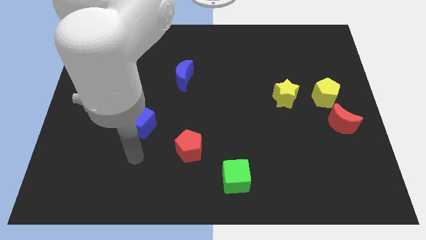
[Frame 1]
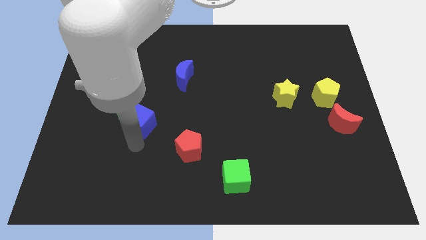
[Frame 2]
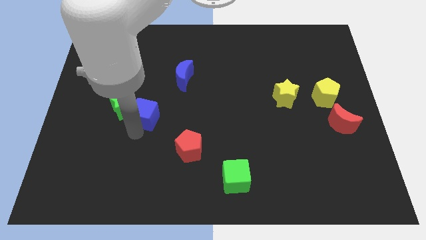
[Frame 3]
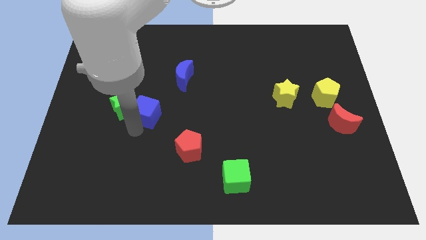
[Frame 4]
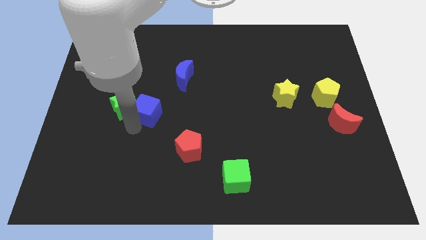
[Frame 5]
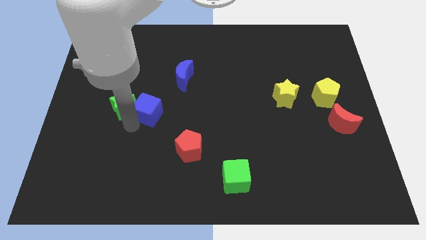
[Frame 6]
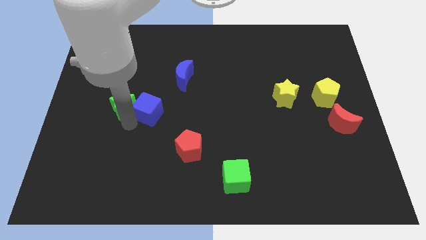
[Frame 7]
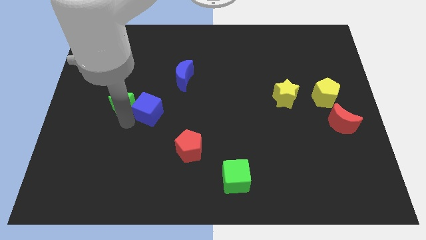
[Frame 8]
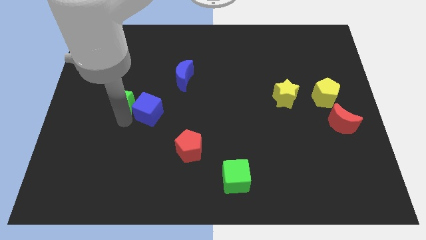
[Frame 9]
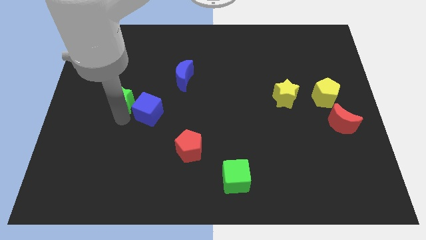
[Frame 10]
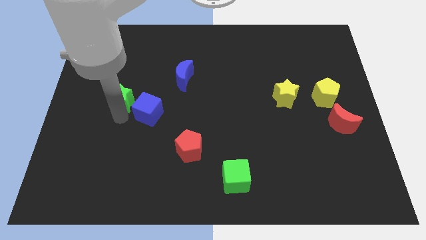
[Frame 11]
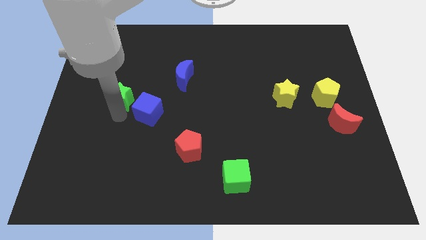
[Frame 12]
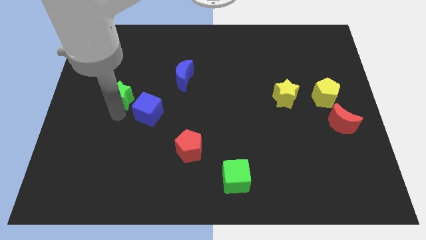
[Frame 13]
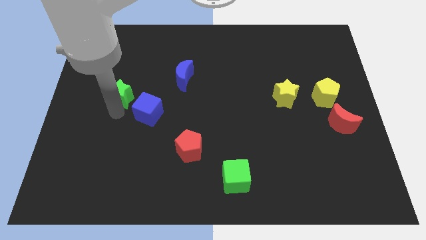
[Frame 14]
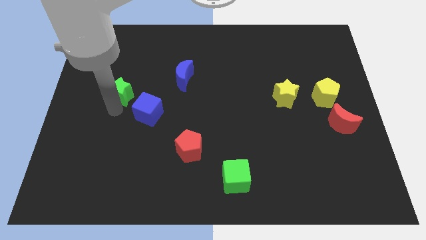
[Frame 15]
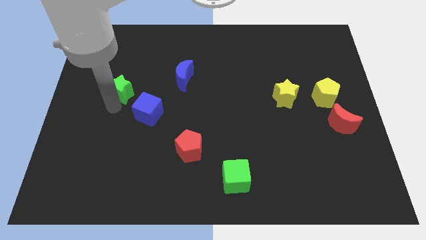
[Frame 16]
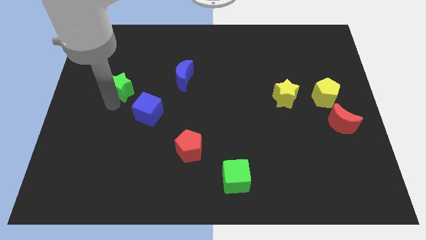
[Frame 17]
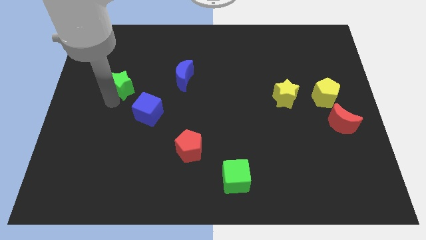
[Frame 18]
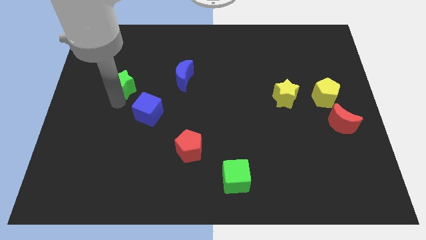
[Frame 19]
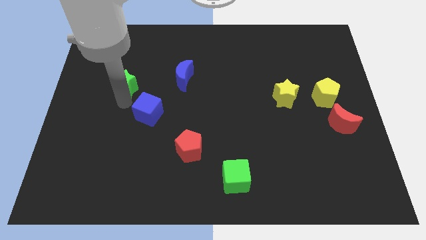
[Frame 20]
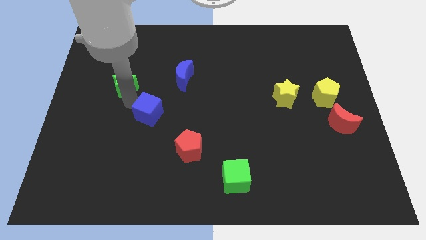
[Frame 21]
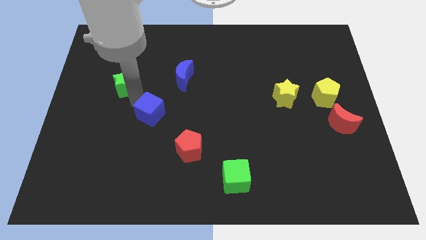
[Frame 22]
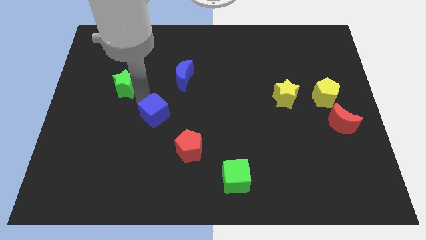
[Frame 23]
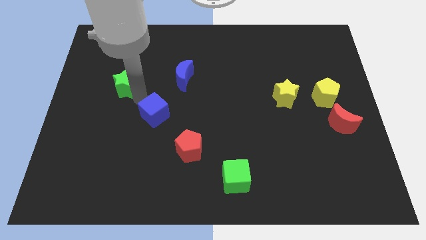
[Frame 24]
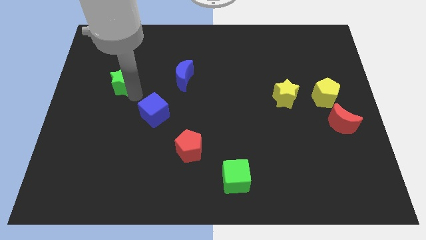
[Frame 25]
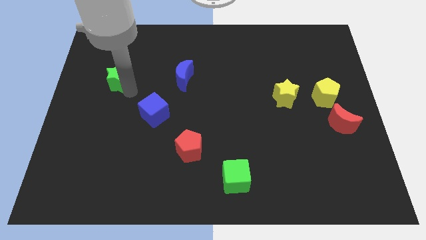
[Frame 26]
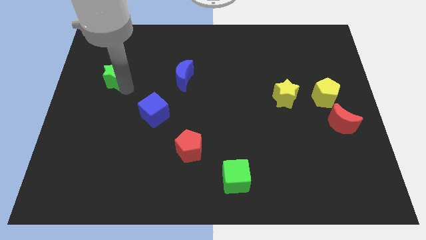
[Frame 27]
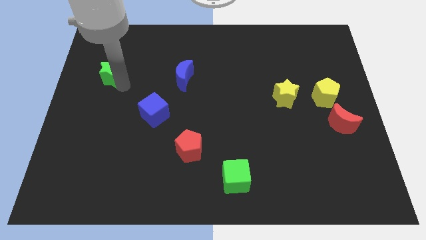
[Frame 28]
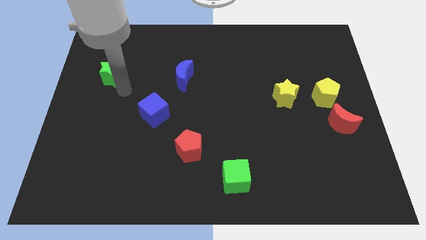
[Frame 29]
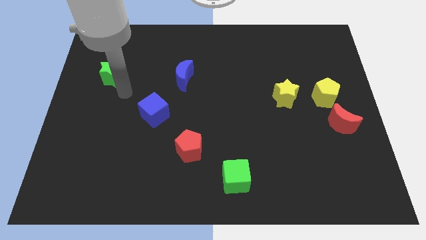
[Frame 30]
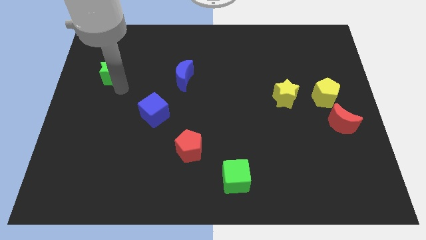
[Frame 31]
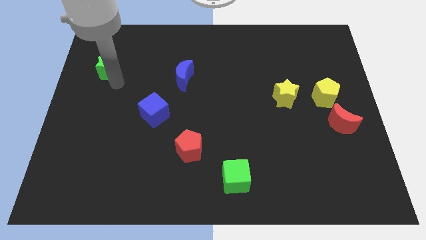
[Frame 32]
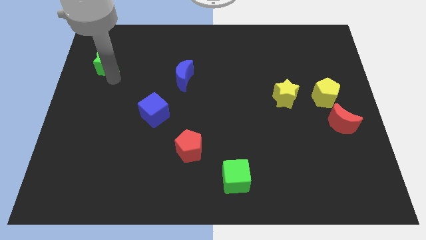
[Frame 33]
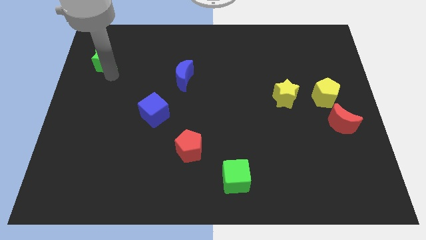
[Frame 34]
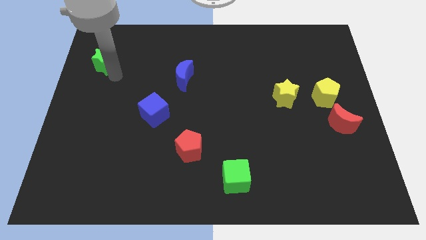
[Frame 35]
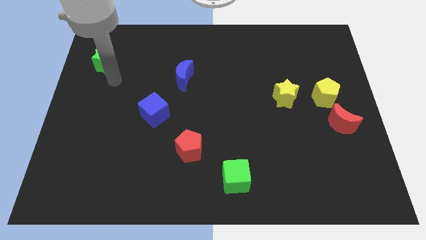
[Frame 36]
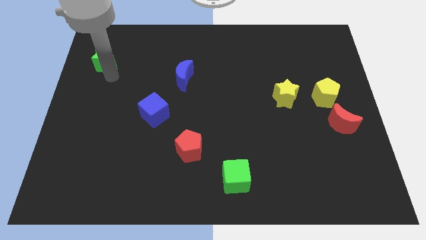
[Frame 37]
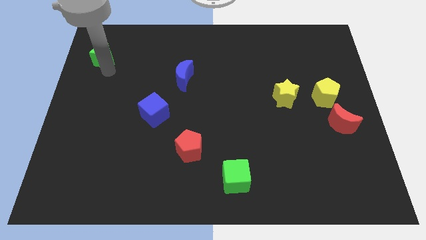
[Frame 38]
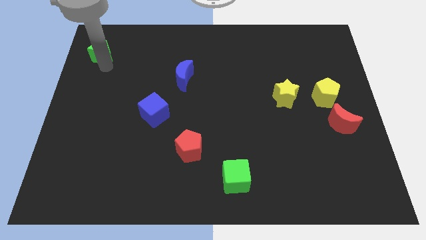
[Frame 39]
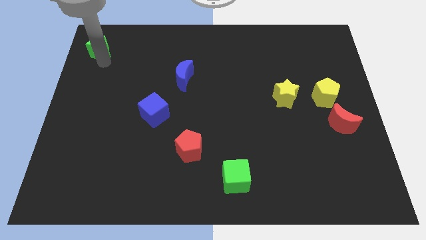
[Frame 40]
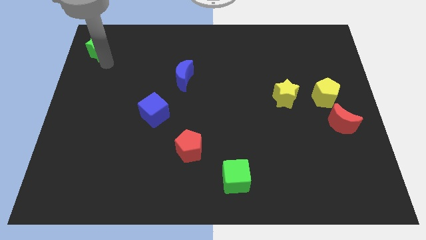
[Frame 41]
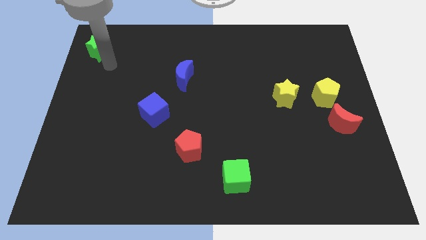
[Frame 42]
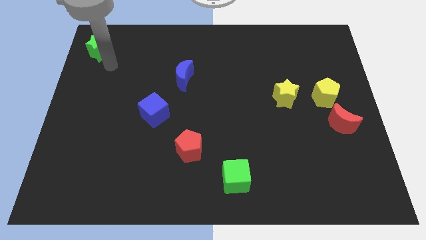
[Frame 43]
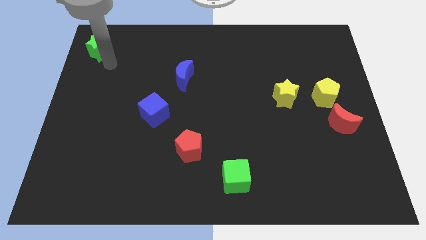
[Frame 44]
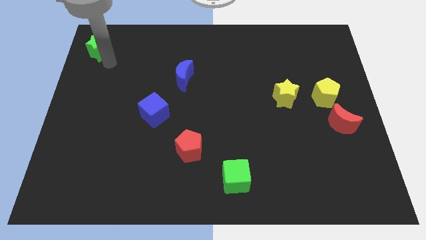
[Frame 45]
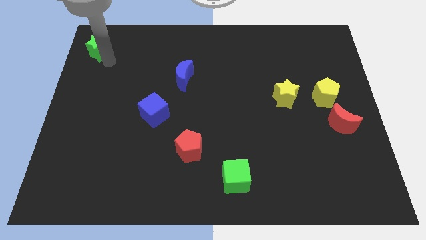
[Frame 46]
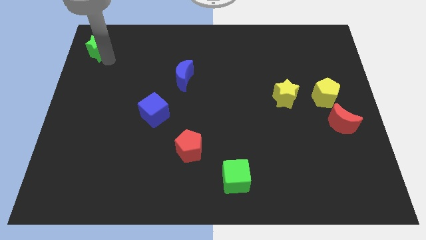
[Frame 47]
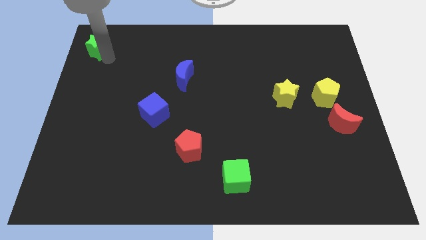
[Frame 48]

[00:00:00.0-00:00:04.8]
push the green star to the top left

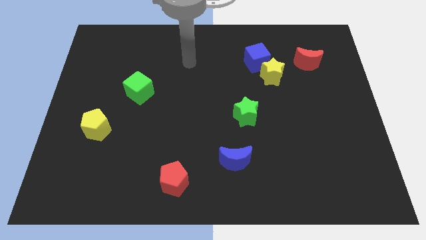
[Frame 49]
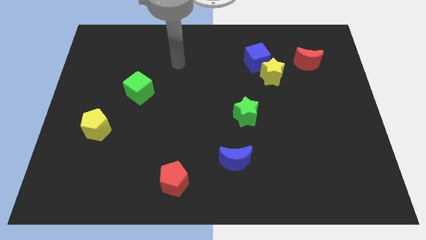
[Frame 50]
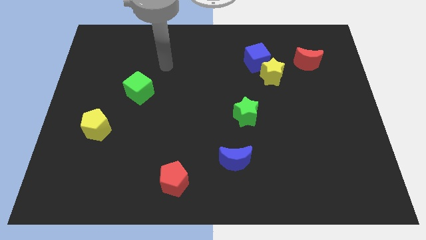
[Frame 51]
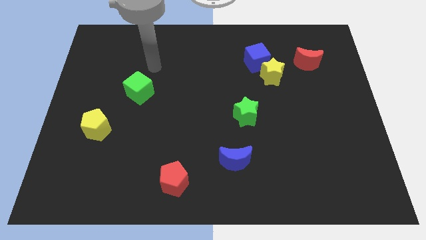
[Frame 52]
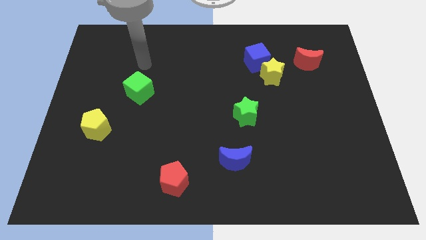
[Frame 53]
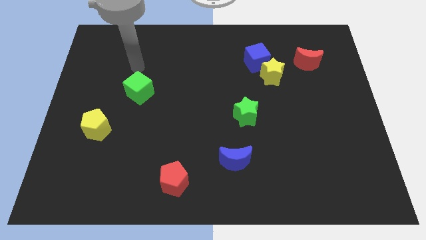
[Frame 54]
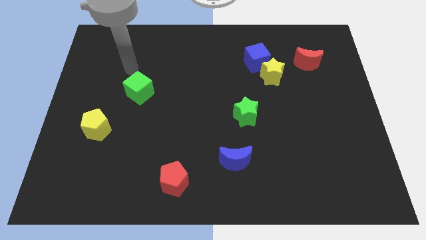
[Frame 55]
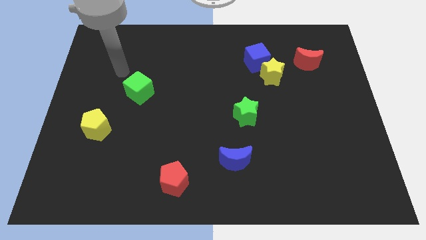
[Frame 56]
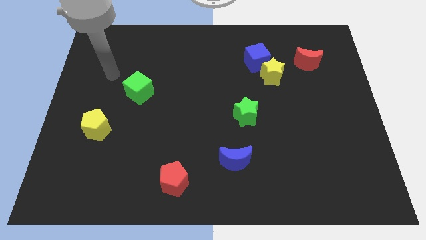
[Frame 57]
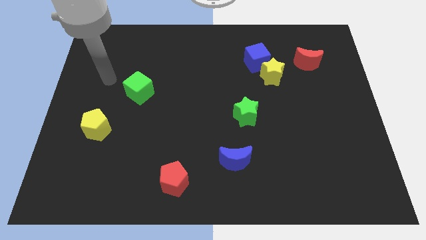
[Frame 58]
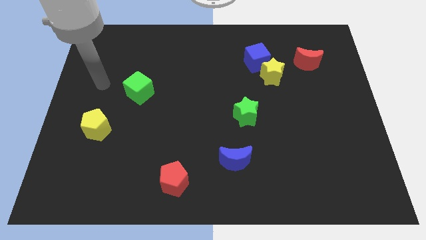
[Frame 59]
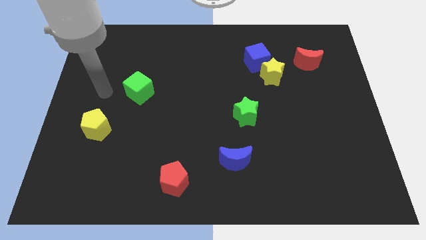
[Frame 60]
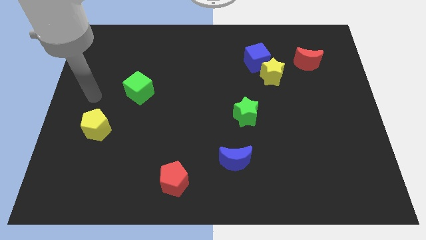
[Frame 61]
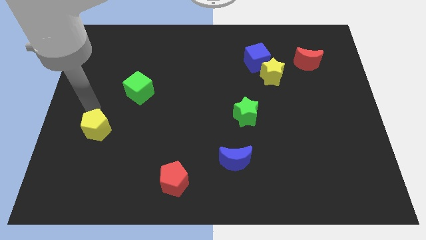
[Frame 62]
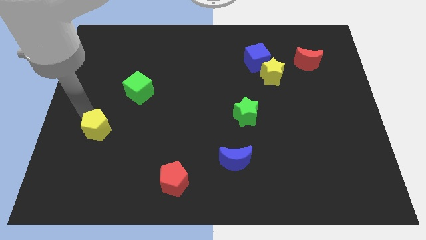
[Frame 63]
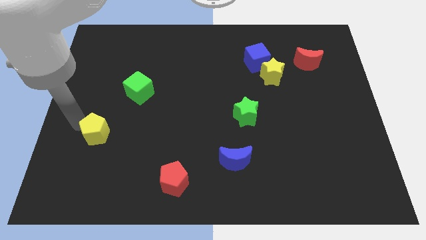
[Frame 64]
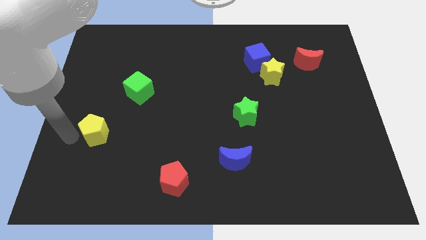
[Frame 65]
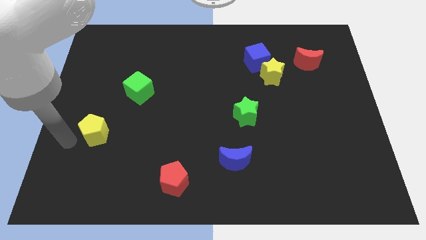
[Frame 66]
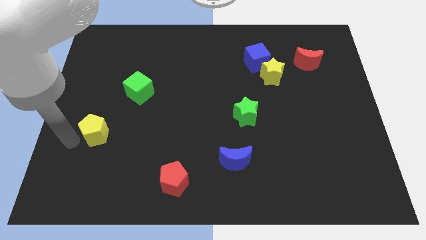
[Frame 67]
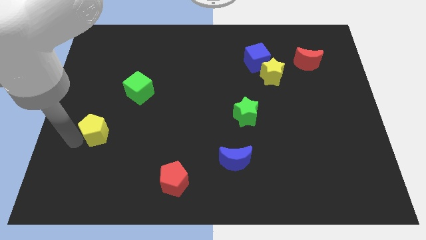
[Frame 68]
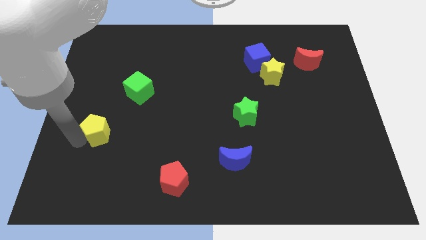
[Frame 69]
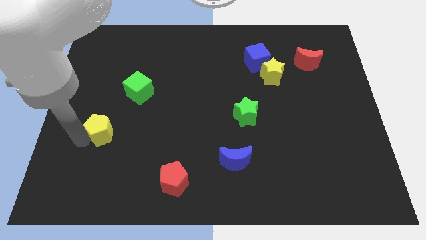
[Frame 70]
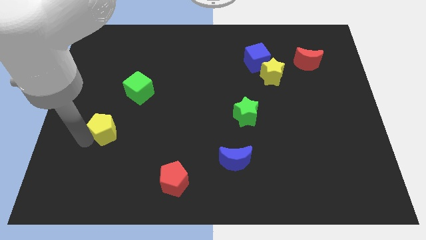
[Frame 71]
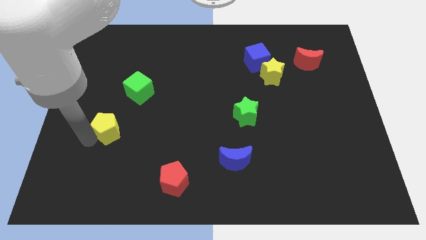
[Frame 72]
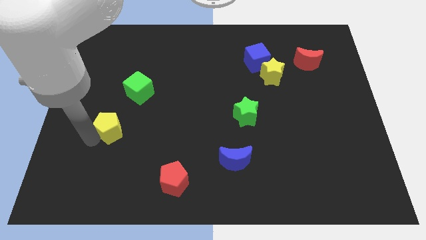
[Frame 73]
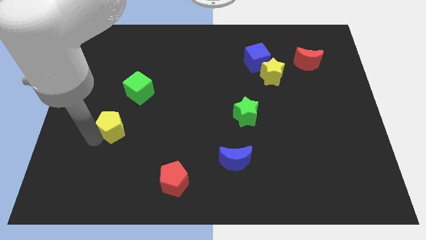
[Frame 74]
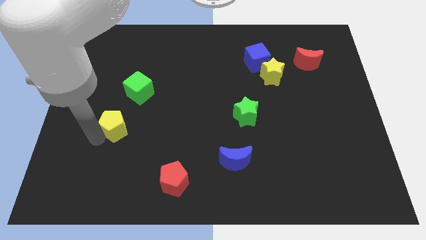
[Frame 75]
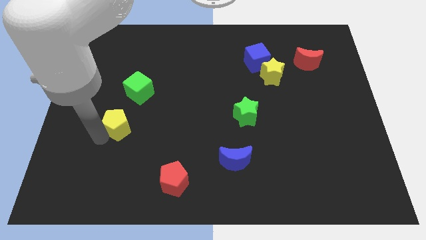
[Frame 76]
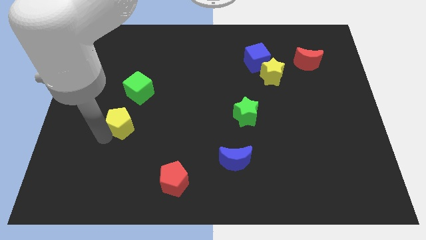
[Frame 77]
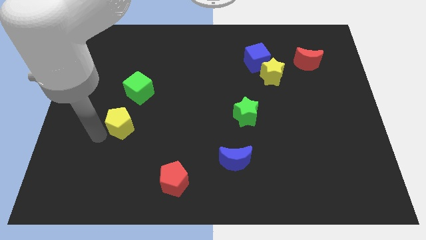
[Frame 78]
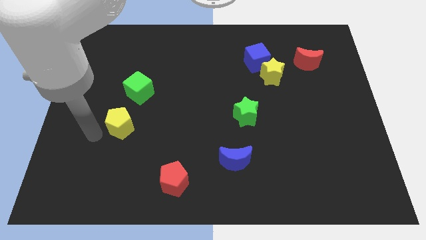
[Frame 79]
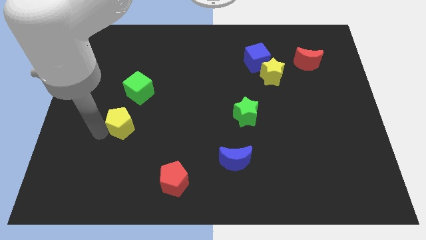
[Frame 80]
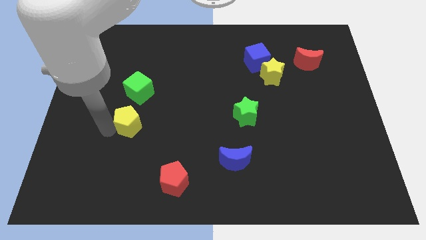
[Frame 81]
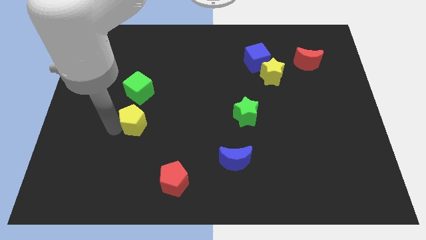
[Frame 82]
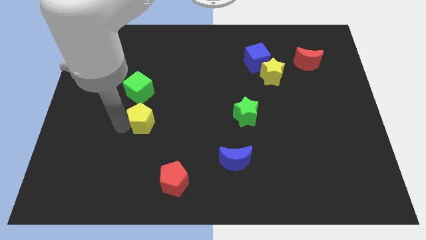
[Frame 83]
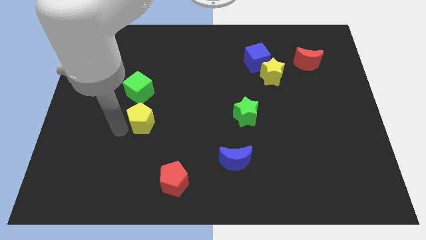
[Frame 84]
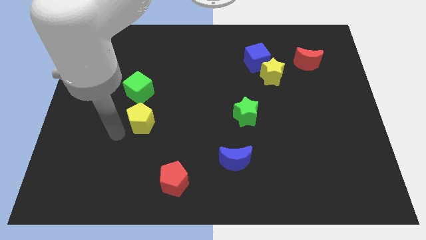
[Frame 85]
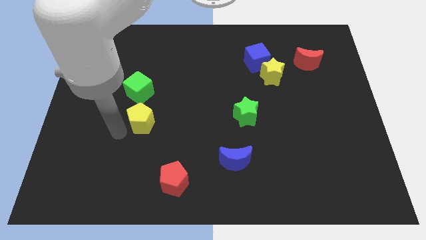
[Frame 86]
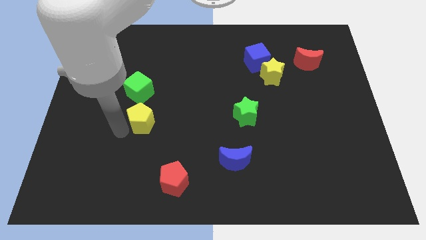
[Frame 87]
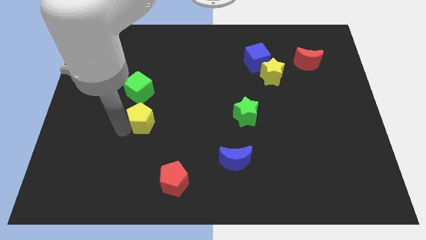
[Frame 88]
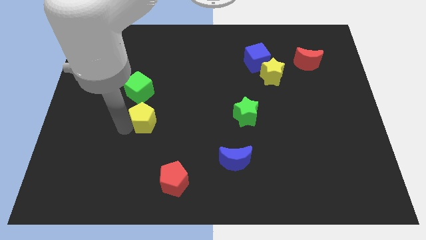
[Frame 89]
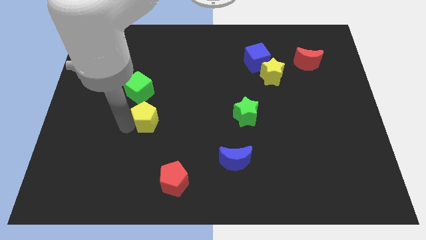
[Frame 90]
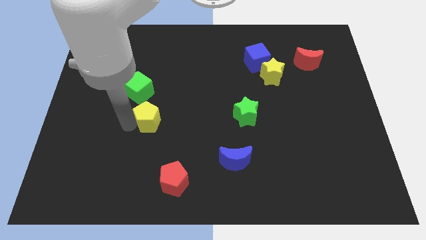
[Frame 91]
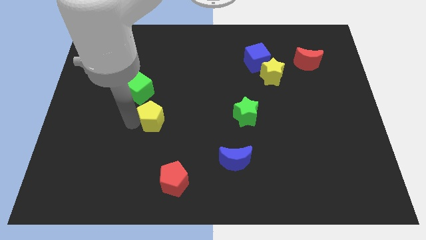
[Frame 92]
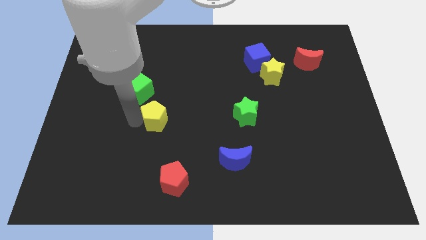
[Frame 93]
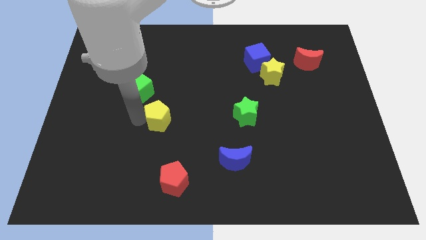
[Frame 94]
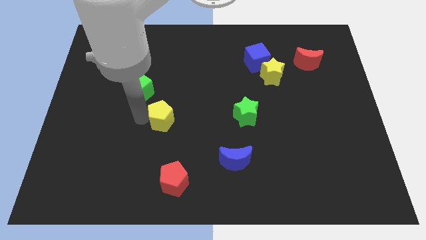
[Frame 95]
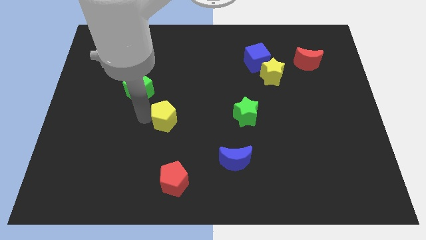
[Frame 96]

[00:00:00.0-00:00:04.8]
slide the yellow pentagon to the middle
